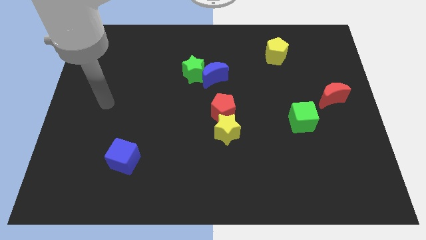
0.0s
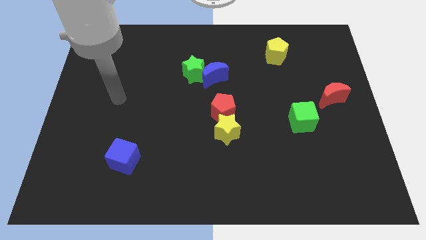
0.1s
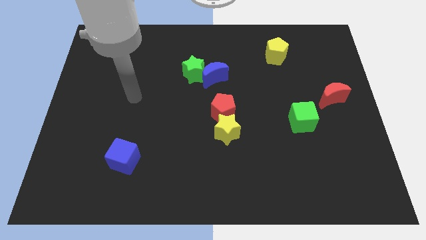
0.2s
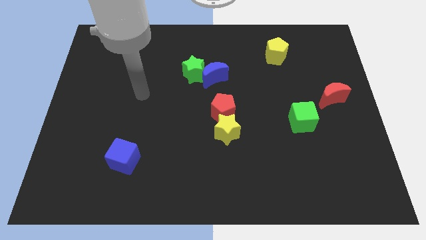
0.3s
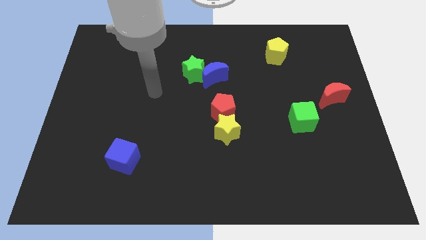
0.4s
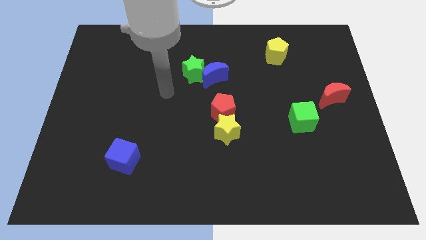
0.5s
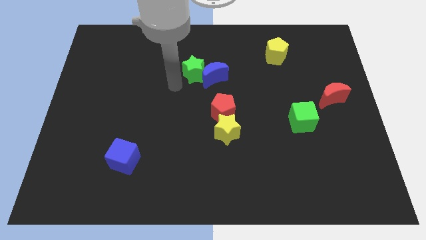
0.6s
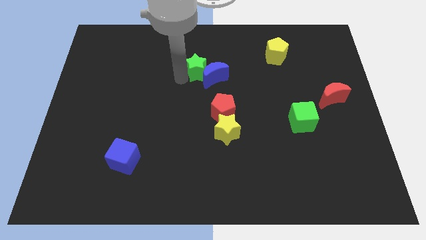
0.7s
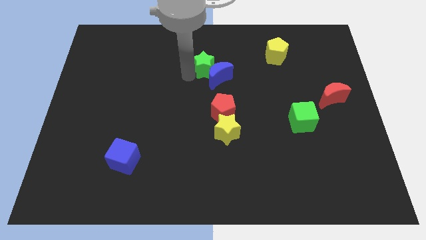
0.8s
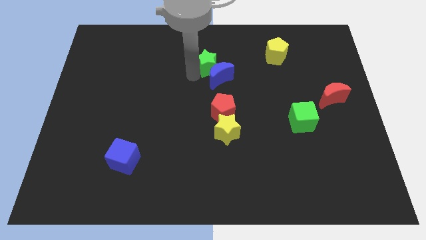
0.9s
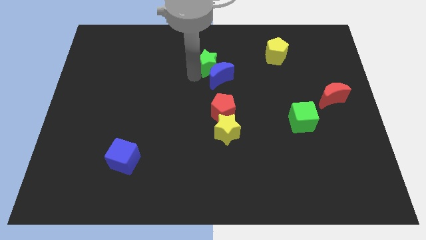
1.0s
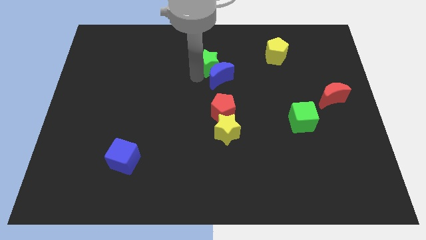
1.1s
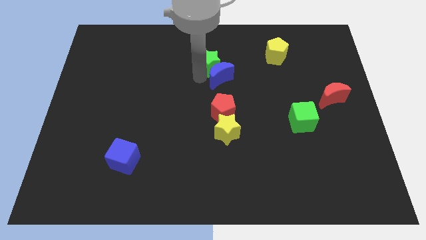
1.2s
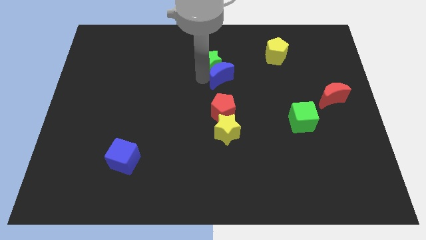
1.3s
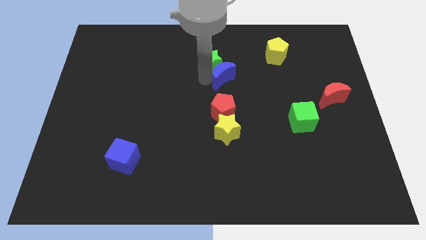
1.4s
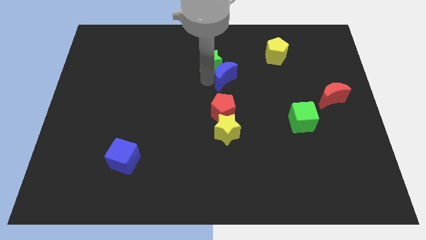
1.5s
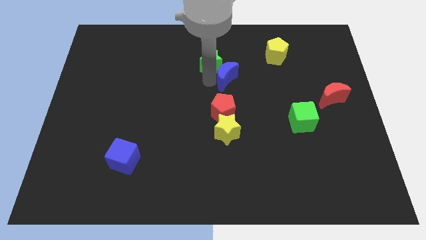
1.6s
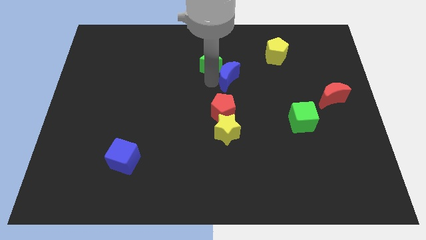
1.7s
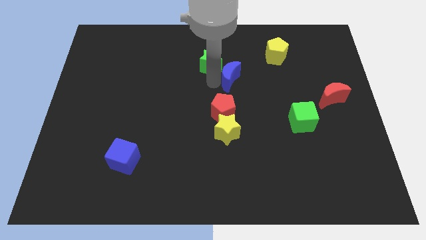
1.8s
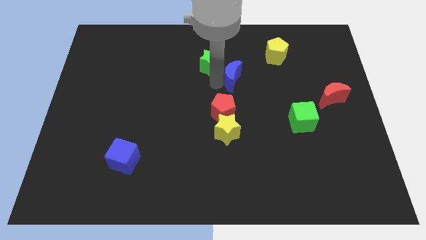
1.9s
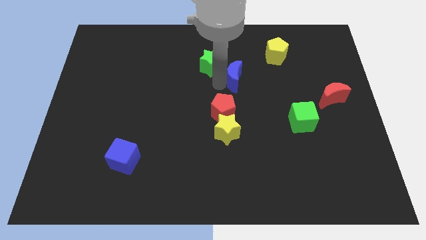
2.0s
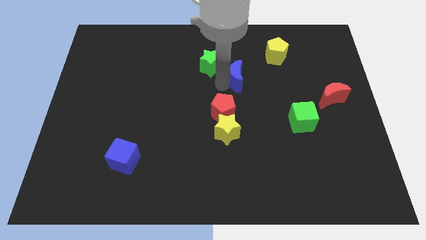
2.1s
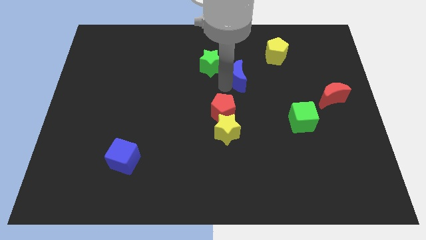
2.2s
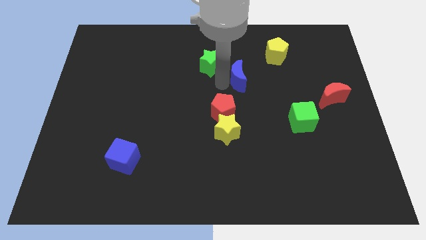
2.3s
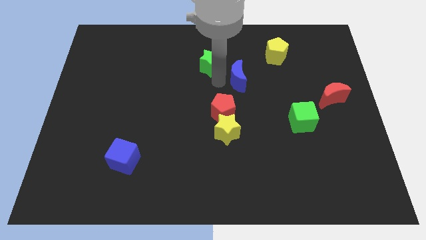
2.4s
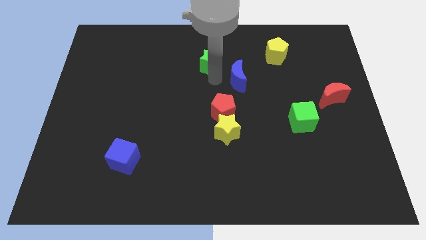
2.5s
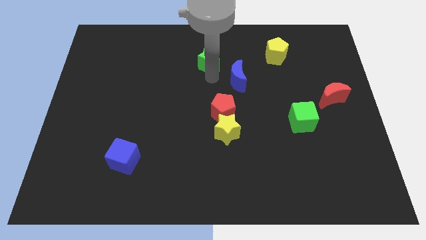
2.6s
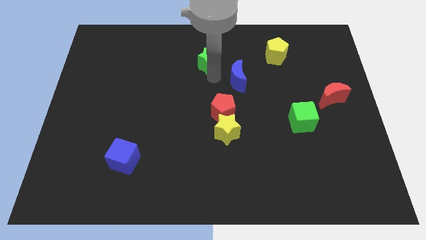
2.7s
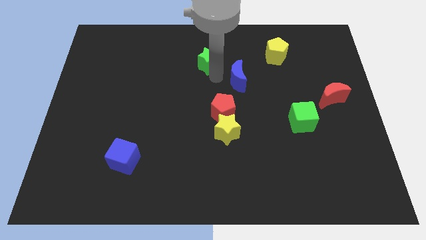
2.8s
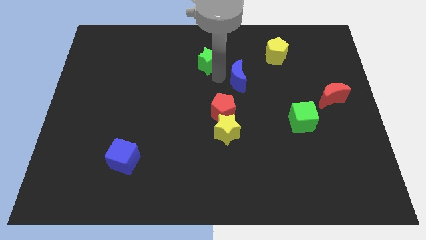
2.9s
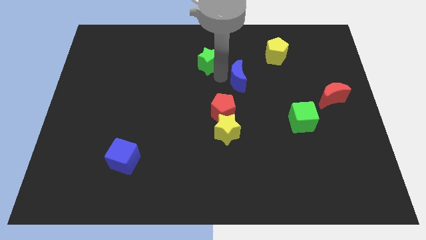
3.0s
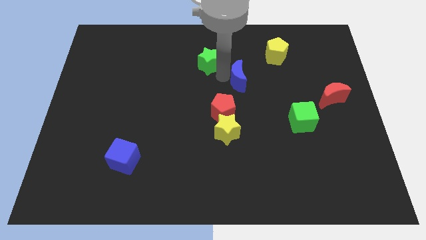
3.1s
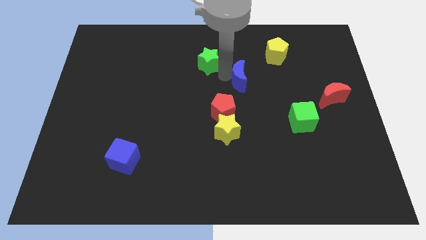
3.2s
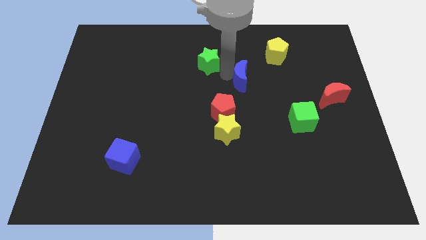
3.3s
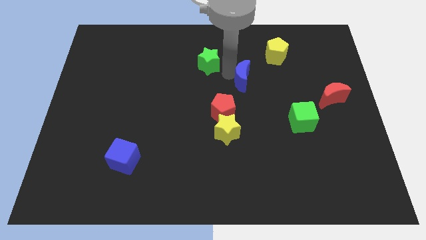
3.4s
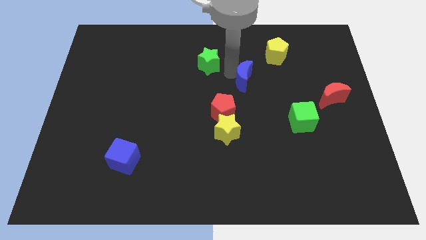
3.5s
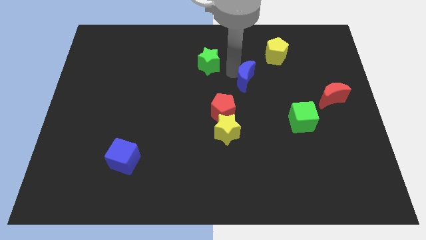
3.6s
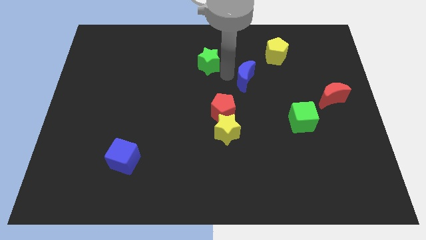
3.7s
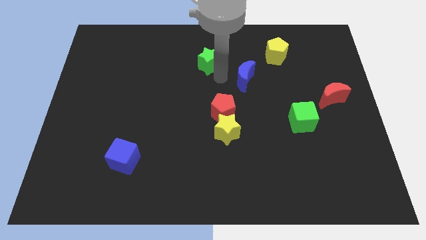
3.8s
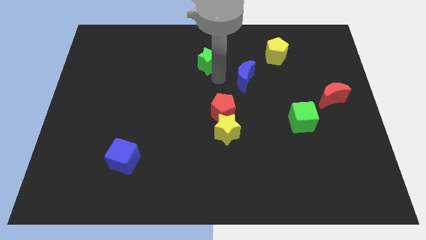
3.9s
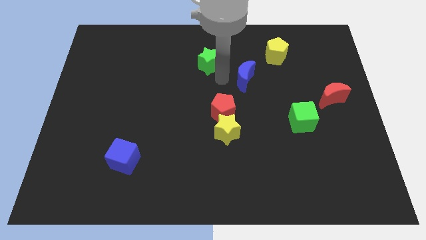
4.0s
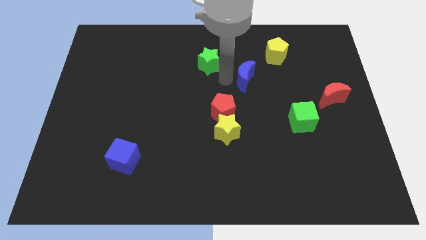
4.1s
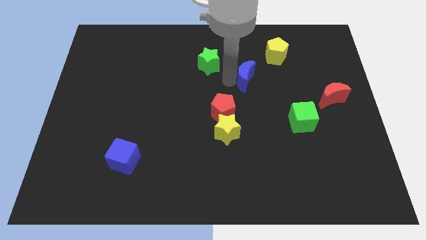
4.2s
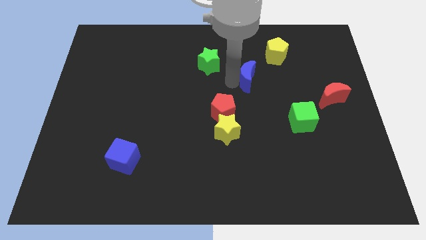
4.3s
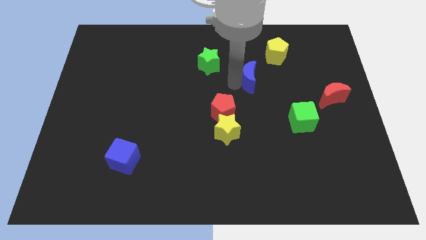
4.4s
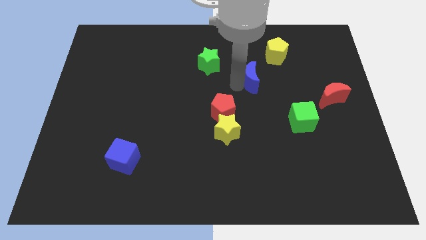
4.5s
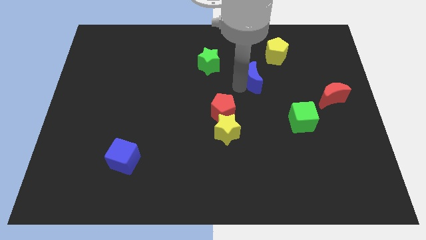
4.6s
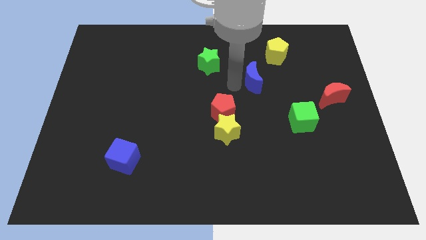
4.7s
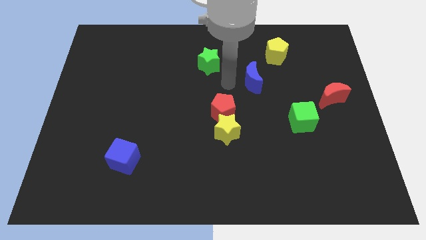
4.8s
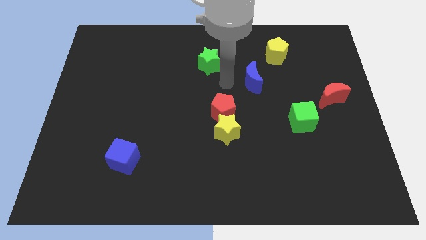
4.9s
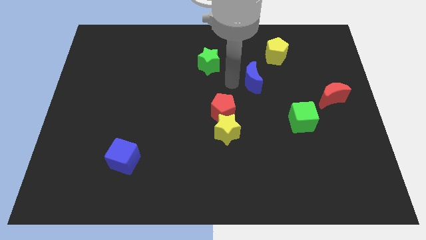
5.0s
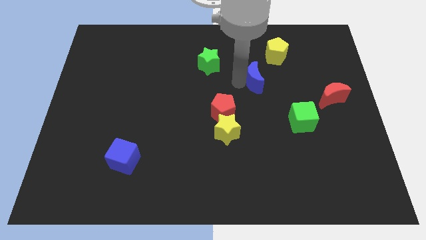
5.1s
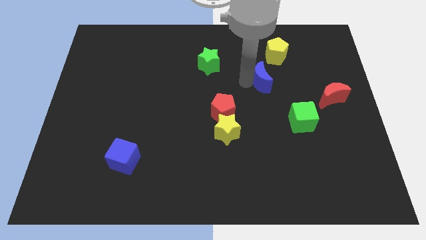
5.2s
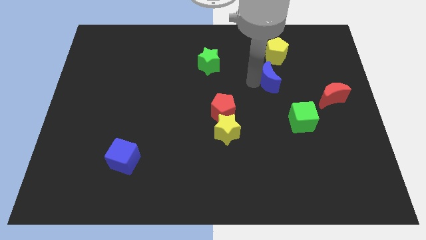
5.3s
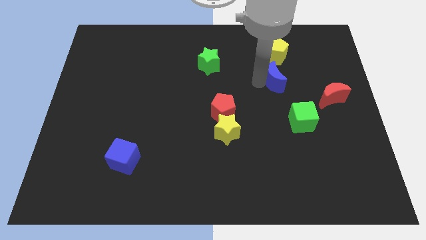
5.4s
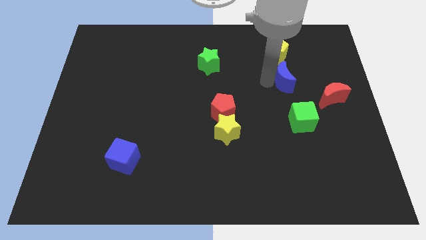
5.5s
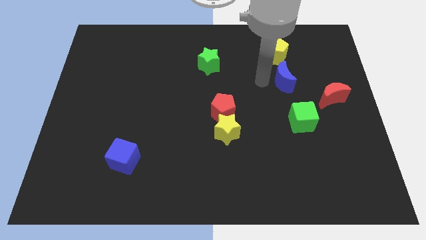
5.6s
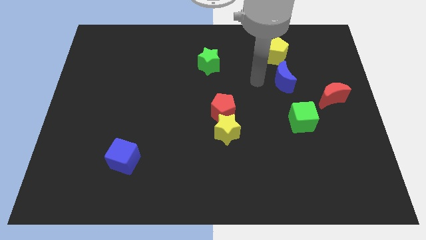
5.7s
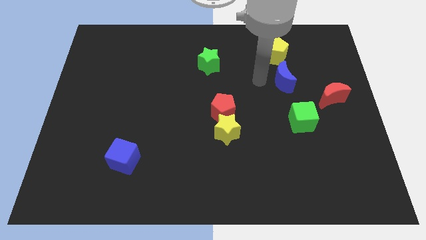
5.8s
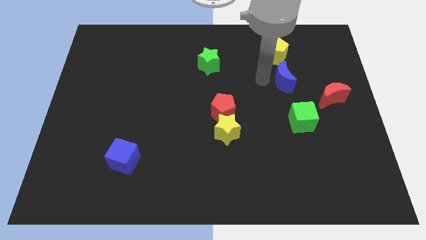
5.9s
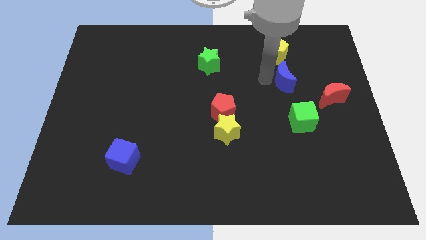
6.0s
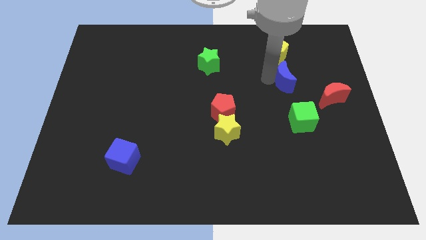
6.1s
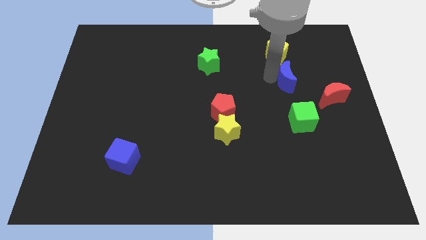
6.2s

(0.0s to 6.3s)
slide the blue moon diagonally up and to the left of the red moon
